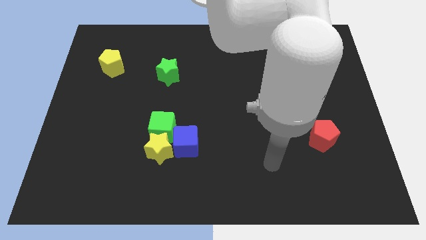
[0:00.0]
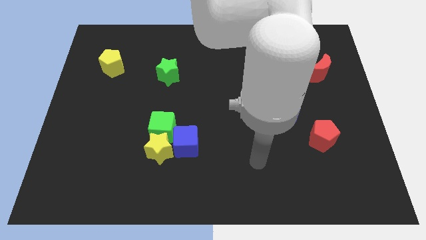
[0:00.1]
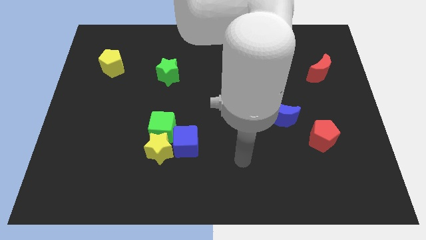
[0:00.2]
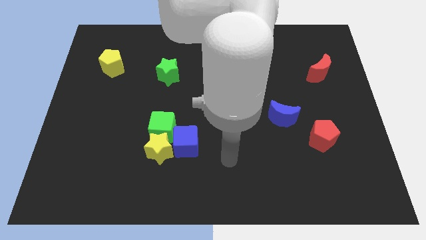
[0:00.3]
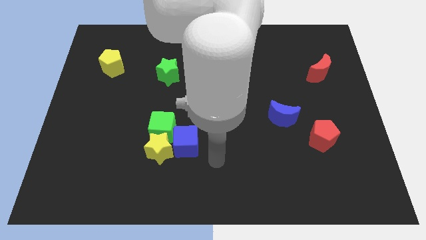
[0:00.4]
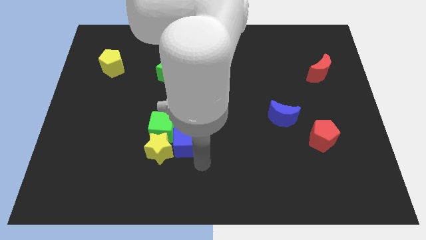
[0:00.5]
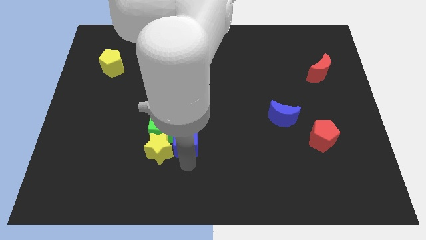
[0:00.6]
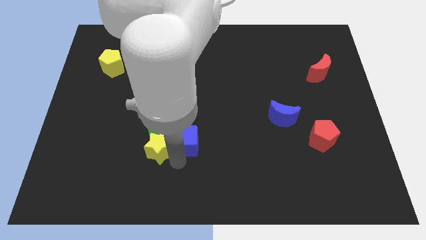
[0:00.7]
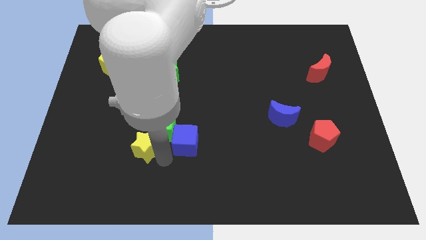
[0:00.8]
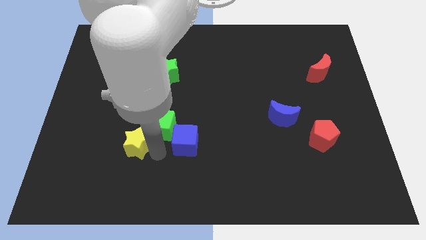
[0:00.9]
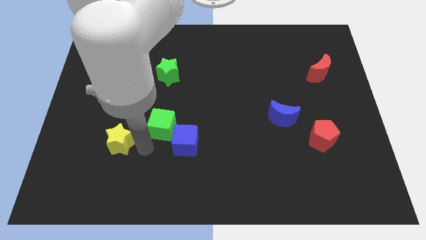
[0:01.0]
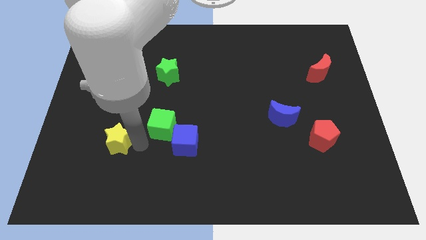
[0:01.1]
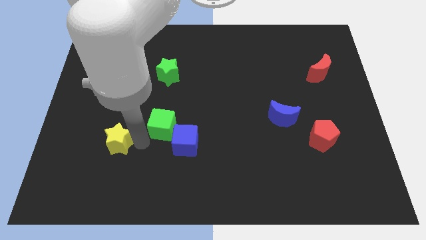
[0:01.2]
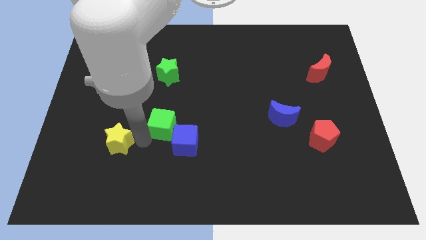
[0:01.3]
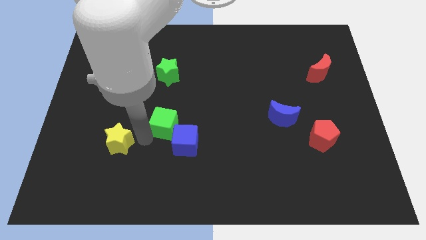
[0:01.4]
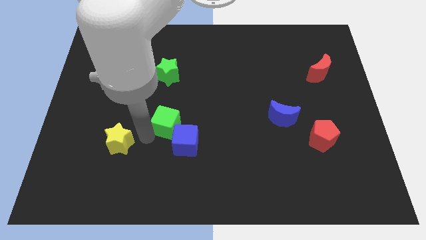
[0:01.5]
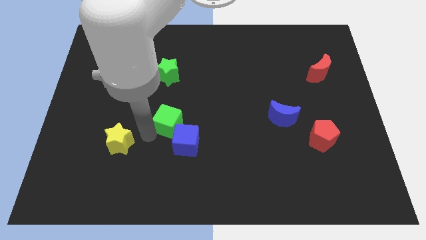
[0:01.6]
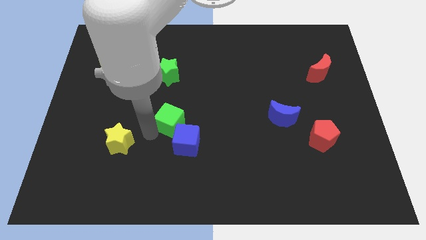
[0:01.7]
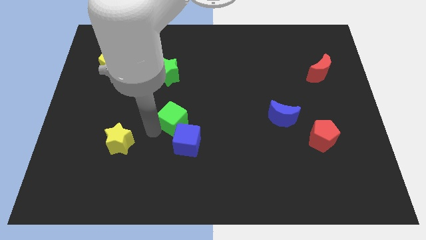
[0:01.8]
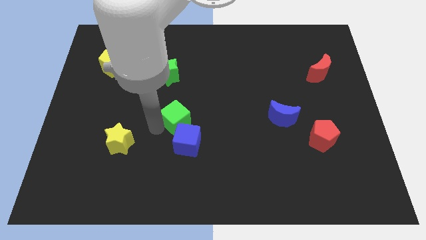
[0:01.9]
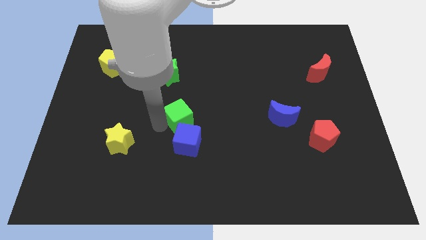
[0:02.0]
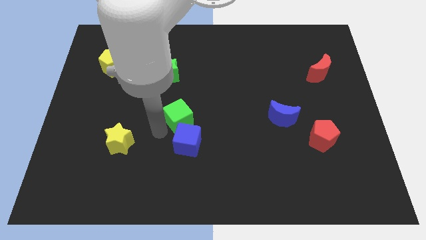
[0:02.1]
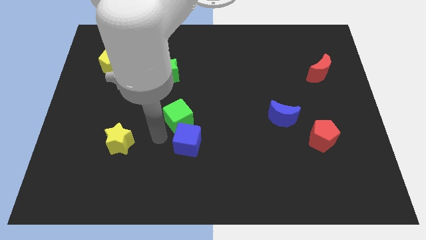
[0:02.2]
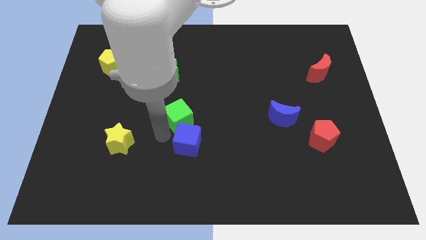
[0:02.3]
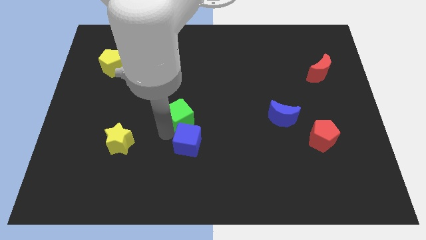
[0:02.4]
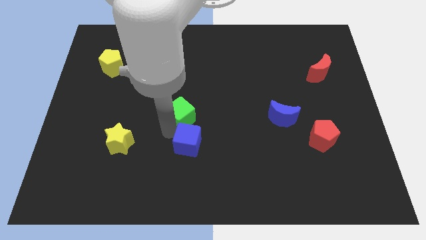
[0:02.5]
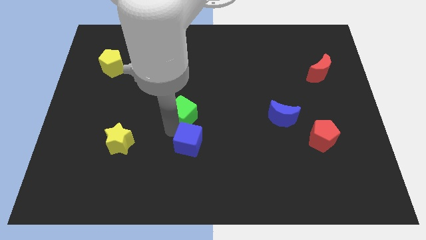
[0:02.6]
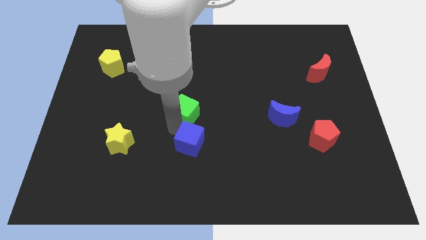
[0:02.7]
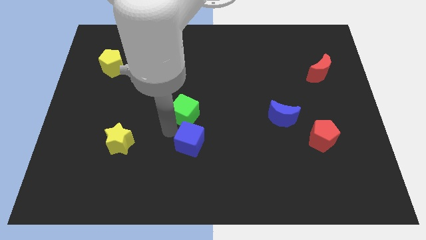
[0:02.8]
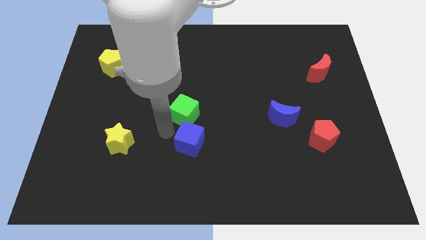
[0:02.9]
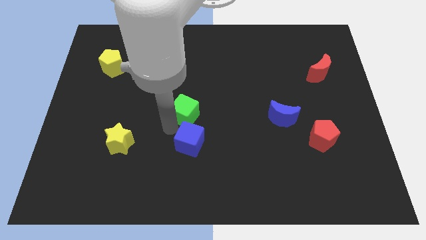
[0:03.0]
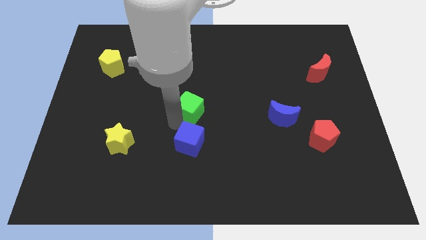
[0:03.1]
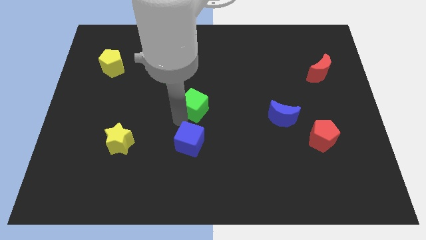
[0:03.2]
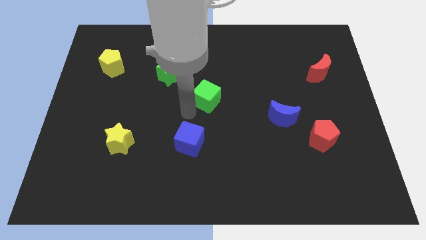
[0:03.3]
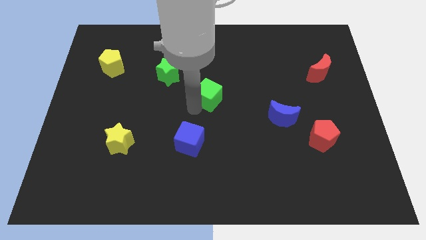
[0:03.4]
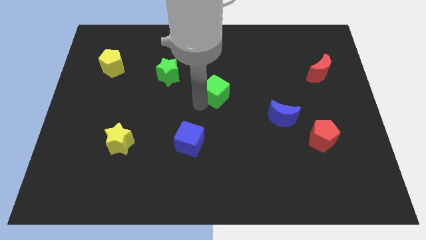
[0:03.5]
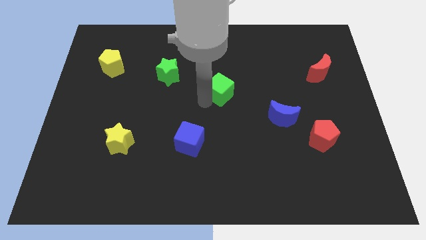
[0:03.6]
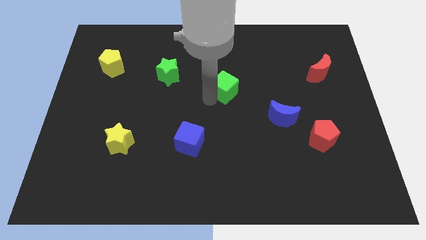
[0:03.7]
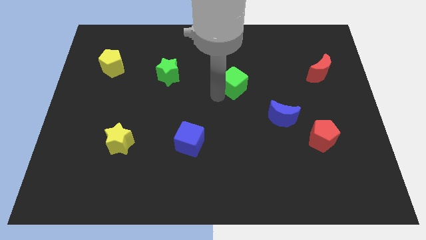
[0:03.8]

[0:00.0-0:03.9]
push the green cube up and right

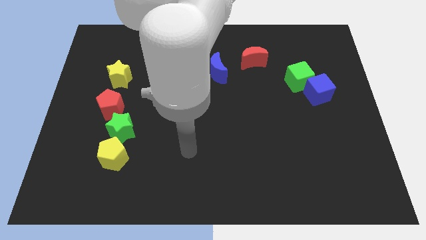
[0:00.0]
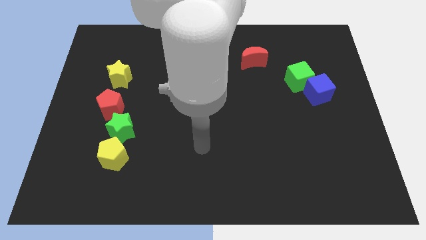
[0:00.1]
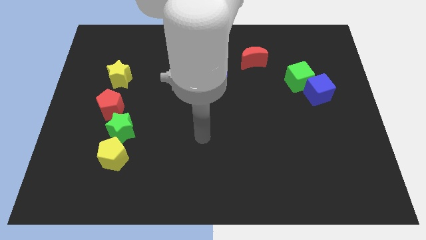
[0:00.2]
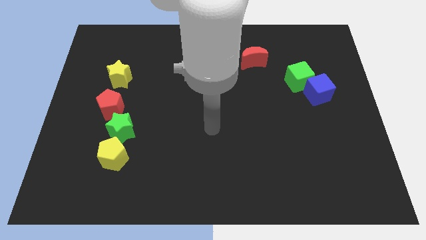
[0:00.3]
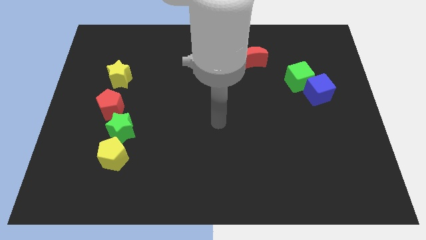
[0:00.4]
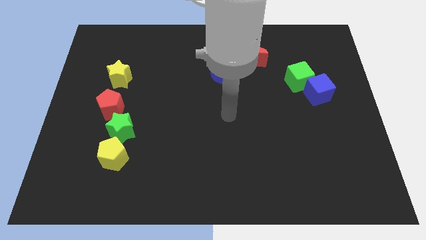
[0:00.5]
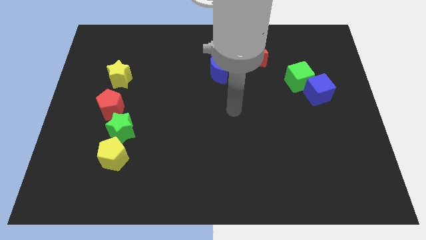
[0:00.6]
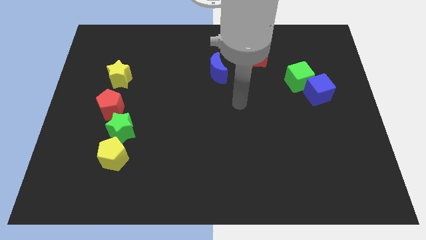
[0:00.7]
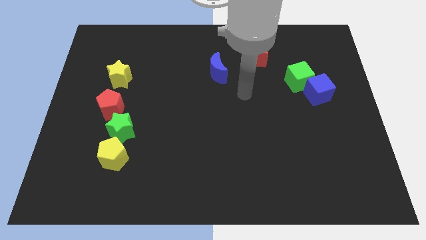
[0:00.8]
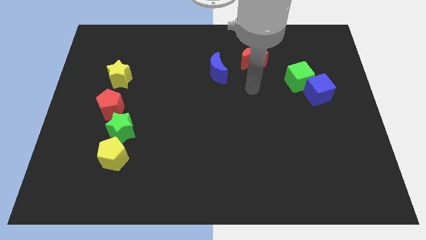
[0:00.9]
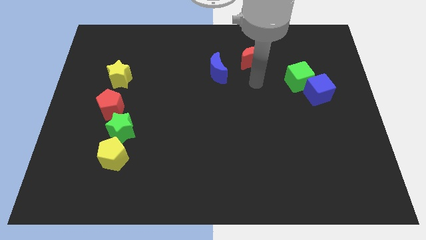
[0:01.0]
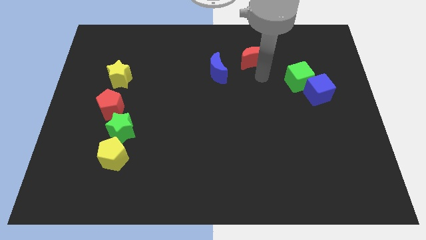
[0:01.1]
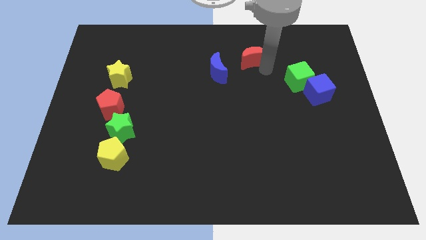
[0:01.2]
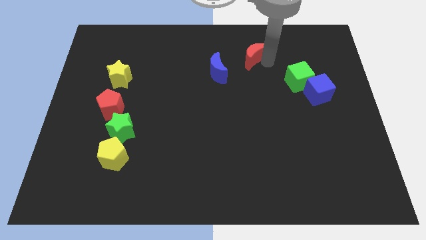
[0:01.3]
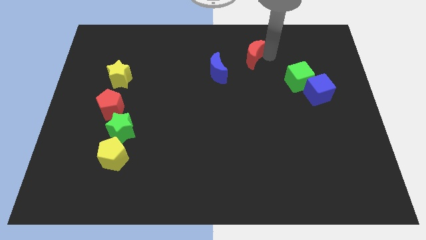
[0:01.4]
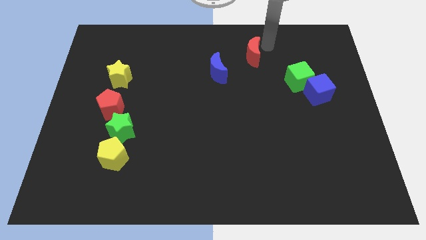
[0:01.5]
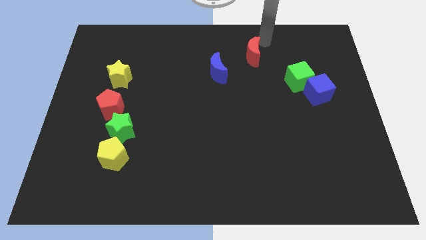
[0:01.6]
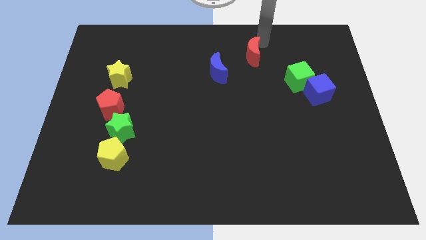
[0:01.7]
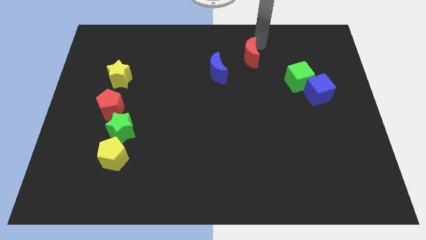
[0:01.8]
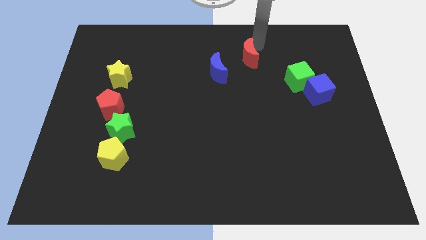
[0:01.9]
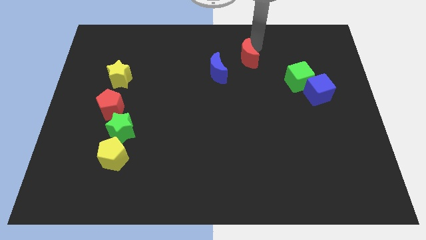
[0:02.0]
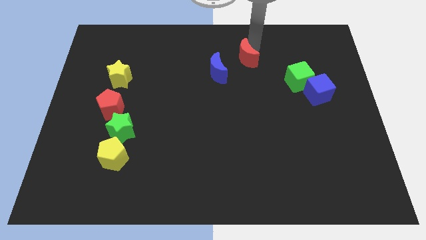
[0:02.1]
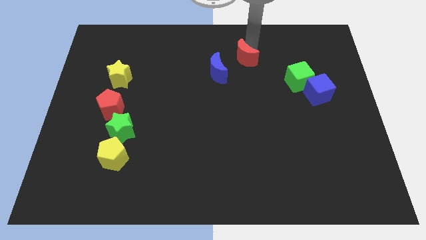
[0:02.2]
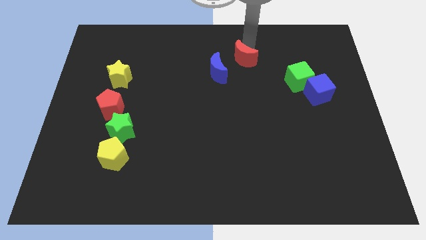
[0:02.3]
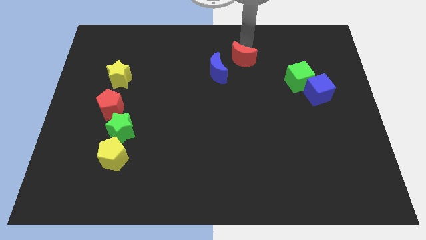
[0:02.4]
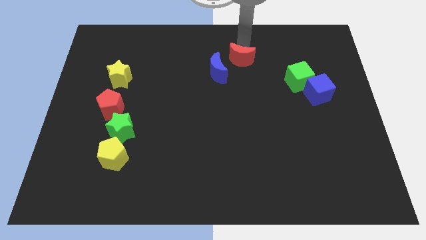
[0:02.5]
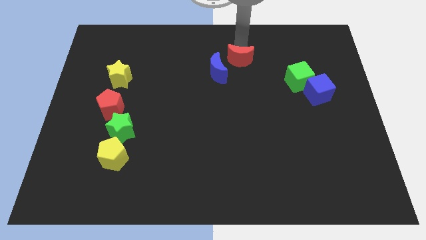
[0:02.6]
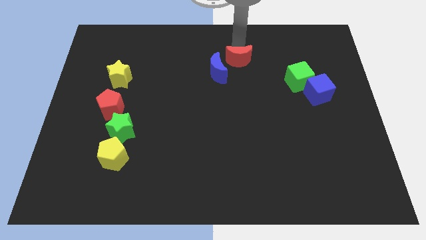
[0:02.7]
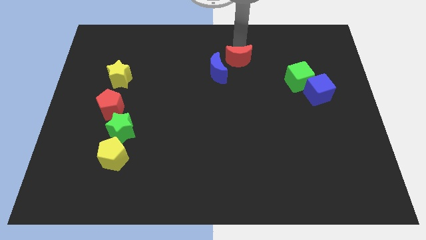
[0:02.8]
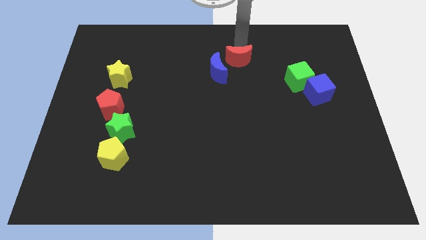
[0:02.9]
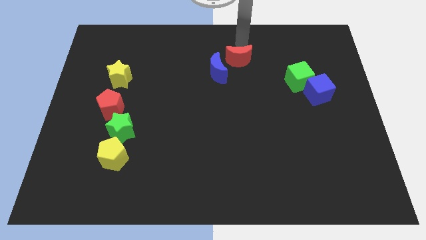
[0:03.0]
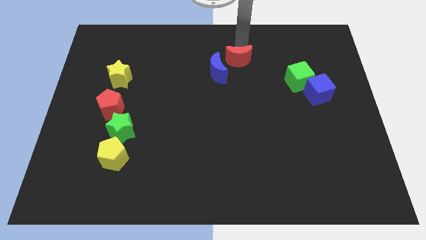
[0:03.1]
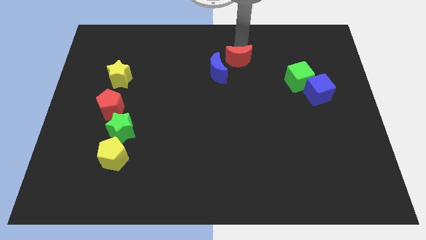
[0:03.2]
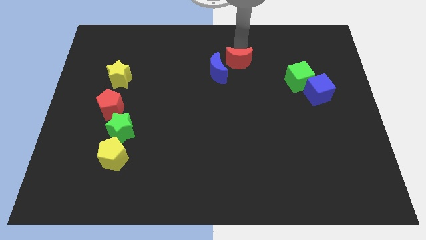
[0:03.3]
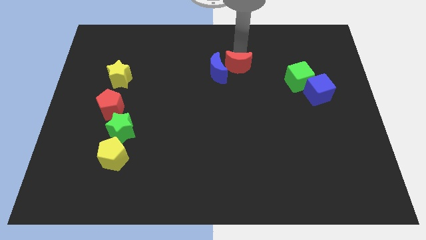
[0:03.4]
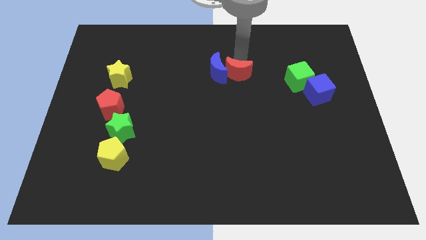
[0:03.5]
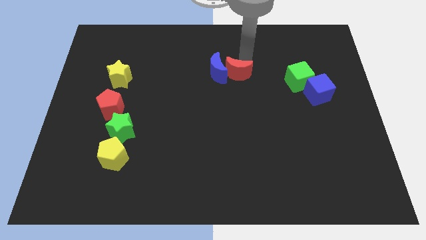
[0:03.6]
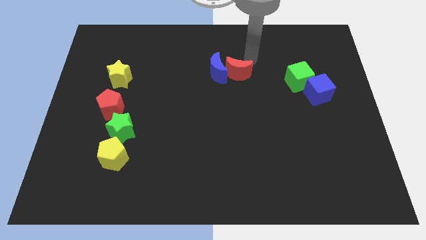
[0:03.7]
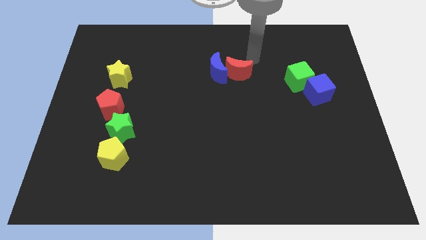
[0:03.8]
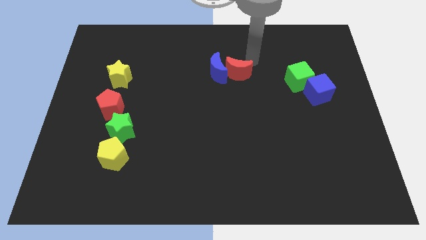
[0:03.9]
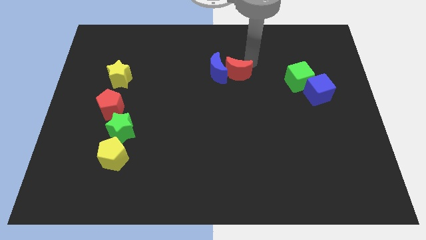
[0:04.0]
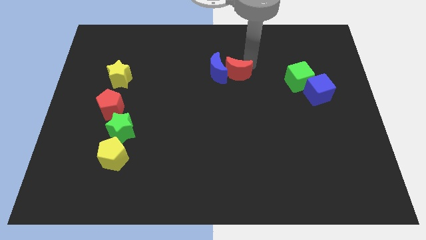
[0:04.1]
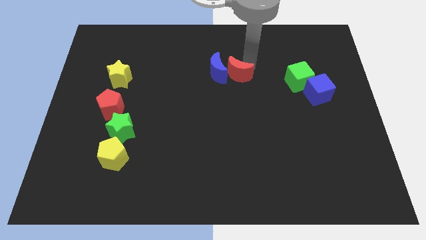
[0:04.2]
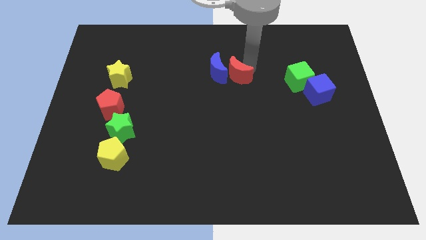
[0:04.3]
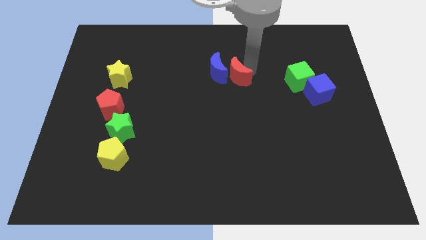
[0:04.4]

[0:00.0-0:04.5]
slightly push the red moon diagonally down and to the left

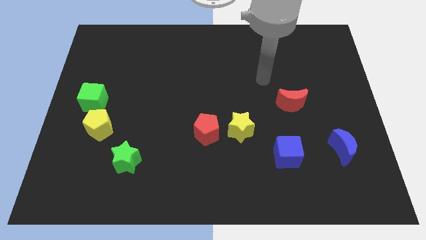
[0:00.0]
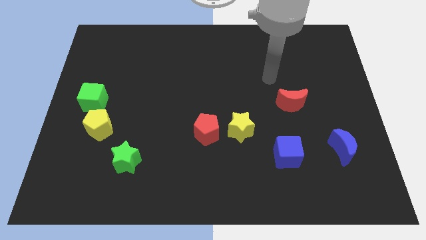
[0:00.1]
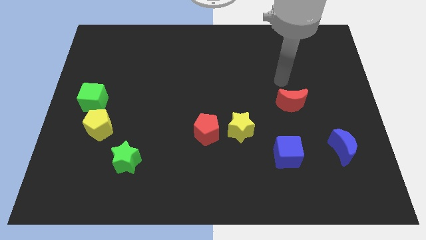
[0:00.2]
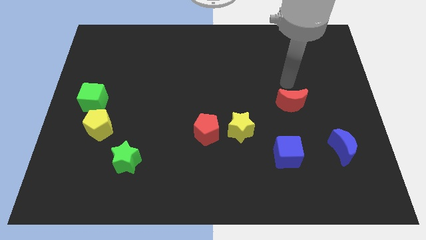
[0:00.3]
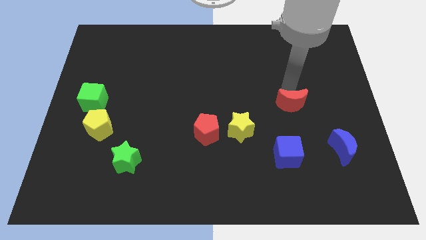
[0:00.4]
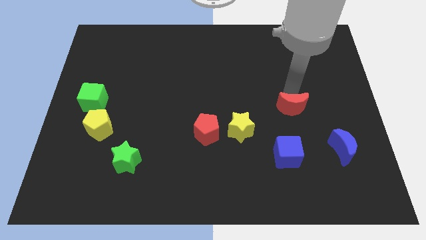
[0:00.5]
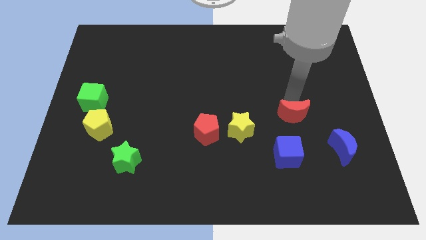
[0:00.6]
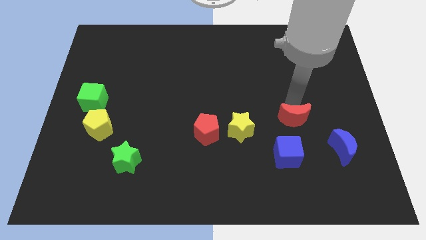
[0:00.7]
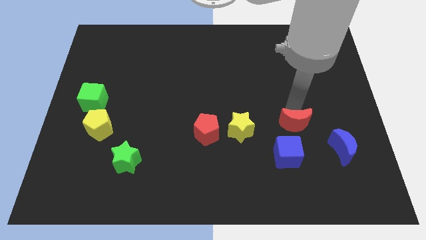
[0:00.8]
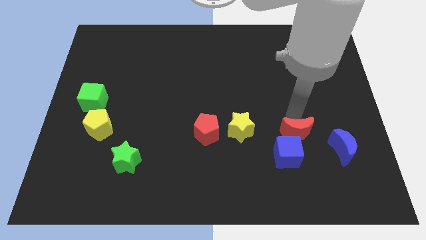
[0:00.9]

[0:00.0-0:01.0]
slightly slide the red moon downwards
